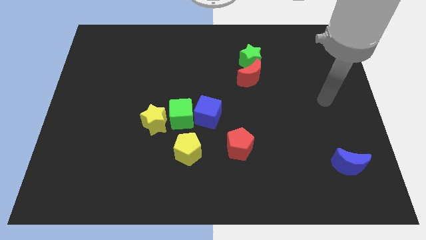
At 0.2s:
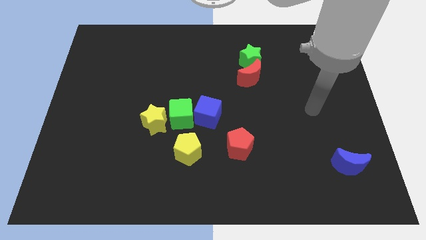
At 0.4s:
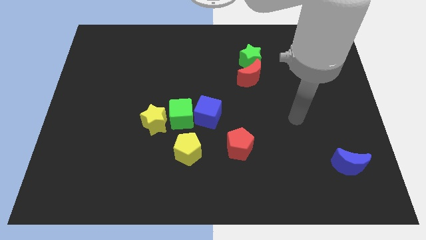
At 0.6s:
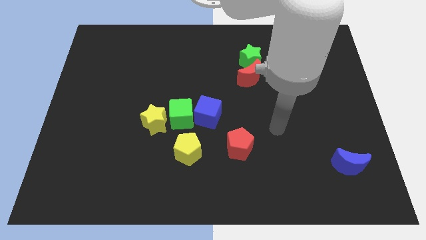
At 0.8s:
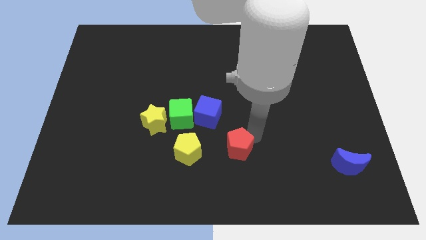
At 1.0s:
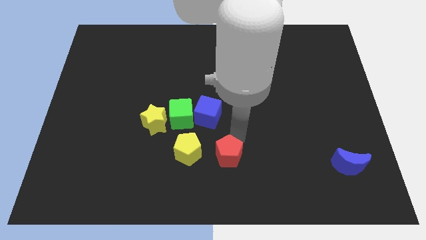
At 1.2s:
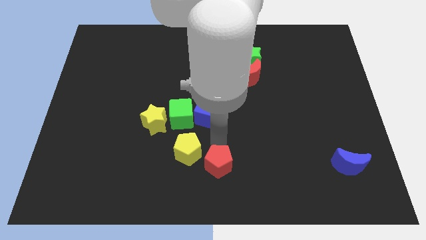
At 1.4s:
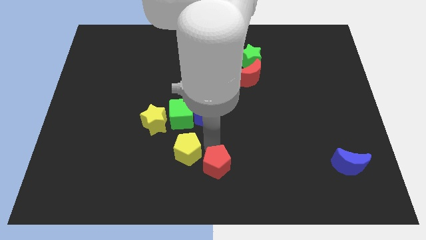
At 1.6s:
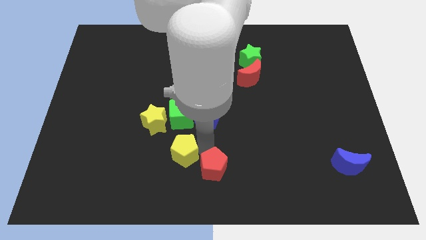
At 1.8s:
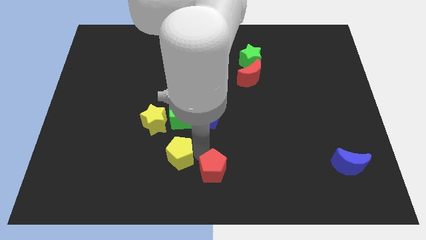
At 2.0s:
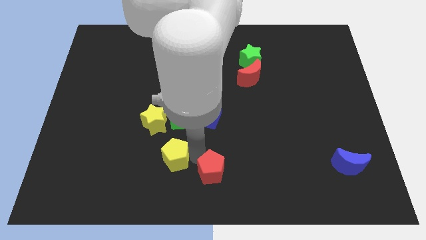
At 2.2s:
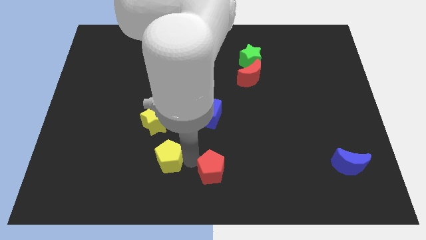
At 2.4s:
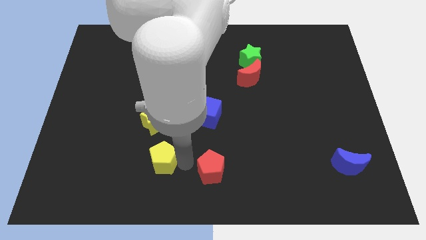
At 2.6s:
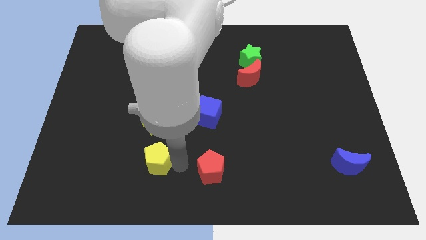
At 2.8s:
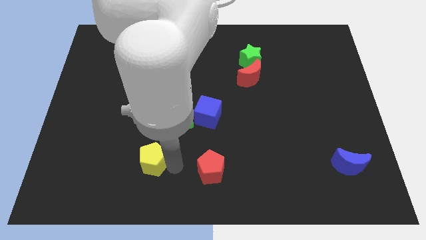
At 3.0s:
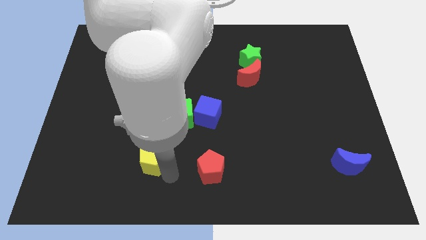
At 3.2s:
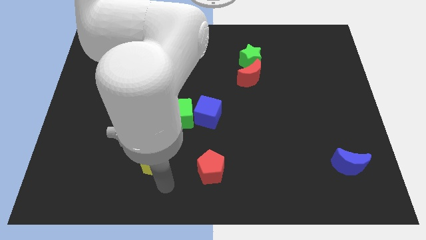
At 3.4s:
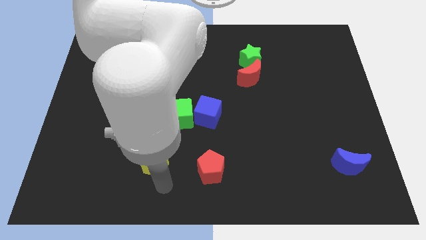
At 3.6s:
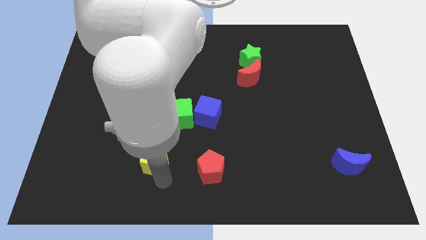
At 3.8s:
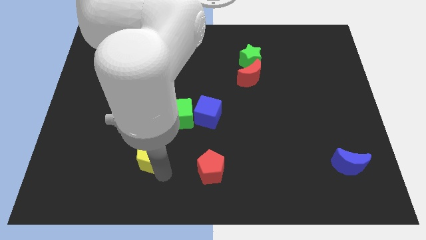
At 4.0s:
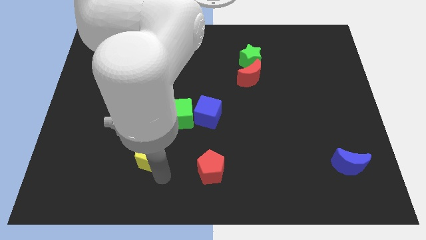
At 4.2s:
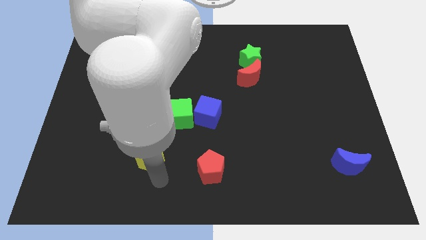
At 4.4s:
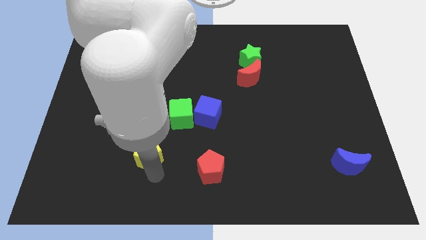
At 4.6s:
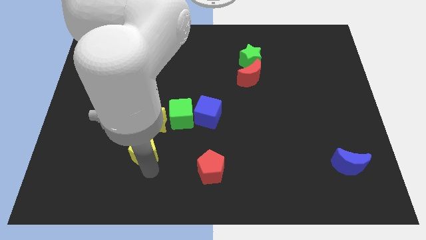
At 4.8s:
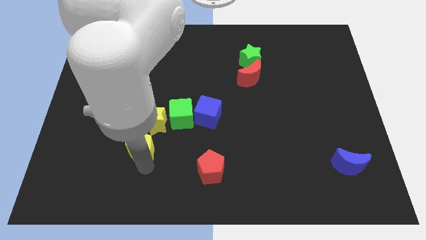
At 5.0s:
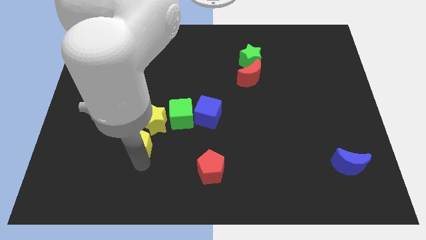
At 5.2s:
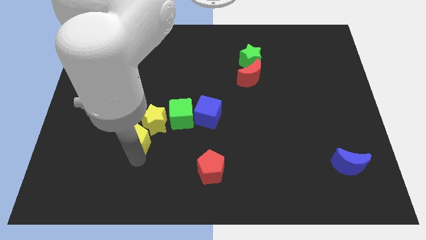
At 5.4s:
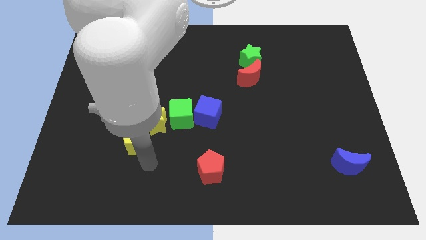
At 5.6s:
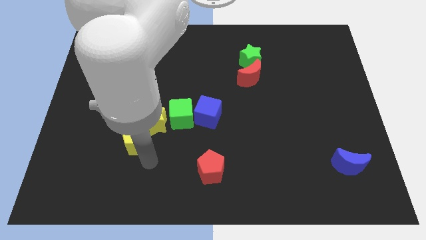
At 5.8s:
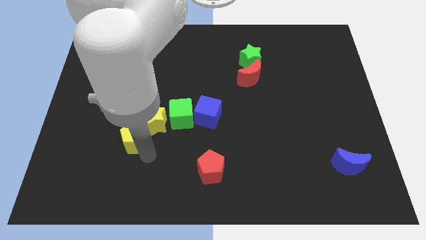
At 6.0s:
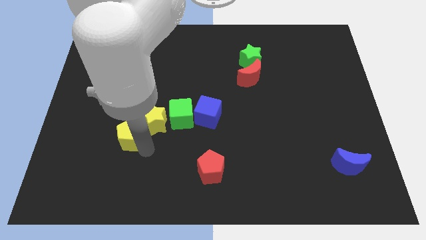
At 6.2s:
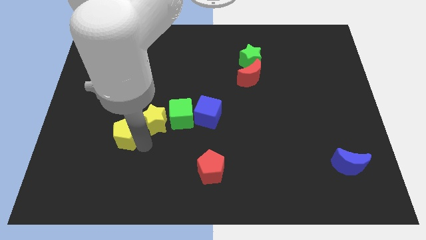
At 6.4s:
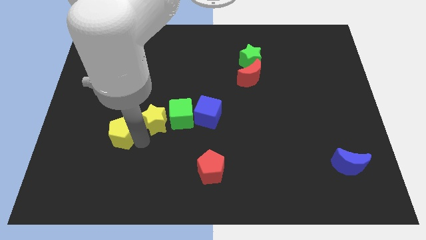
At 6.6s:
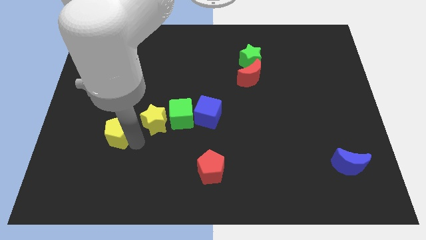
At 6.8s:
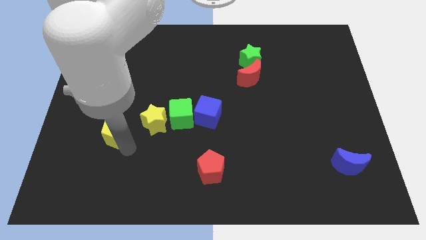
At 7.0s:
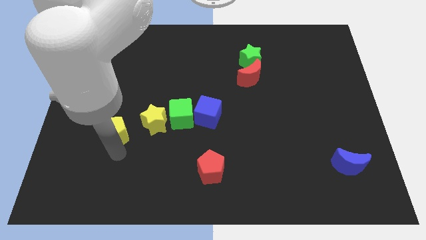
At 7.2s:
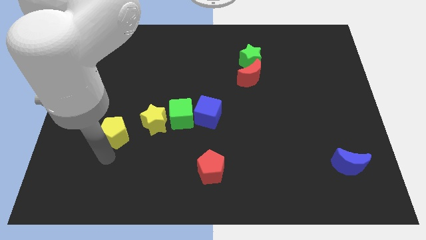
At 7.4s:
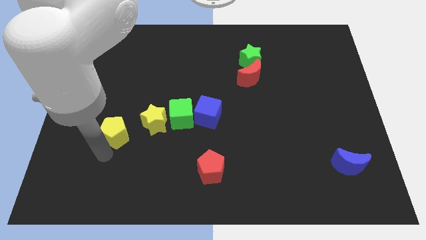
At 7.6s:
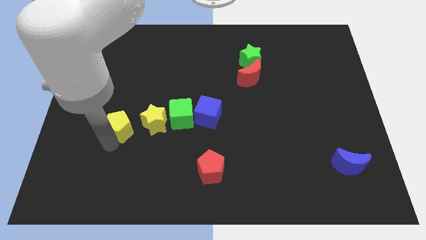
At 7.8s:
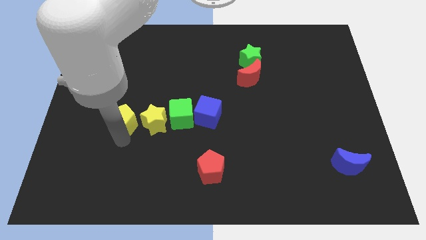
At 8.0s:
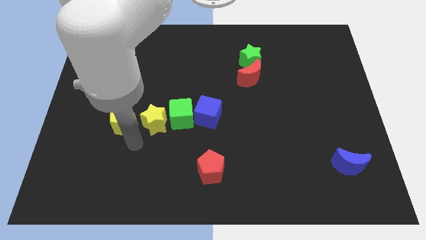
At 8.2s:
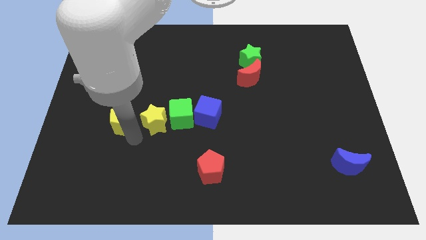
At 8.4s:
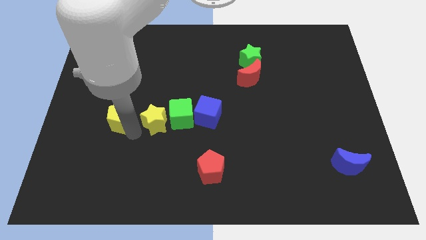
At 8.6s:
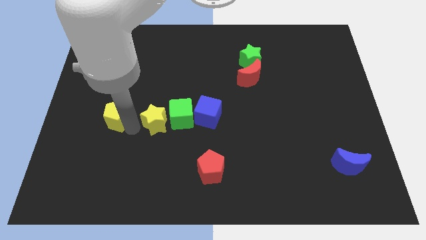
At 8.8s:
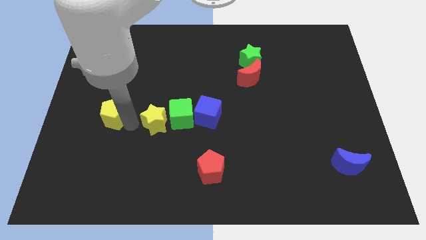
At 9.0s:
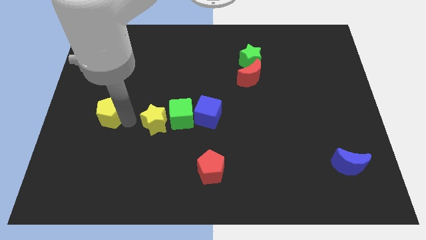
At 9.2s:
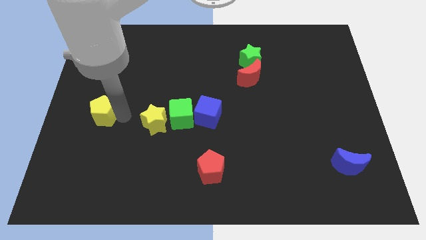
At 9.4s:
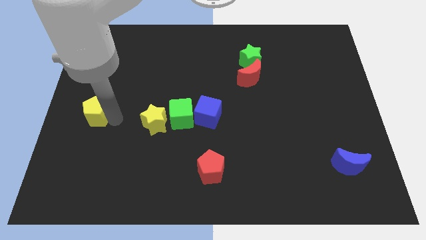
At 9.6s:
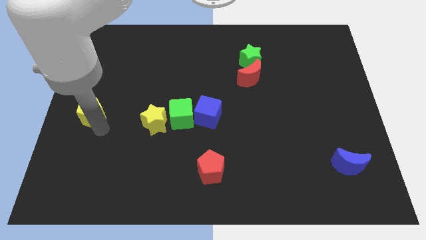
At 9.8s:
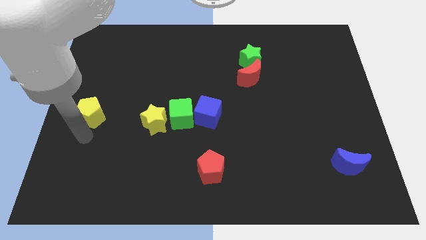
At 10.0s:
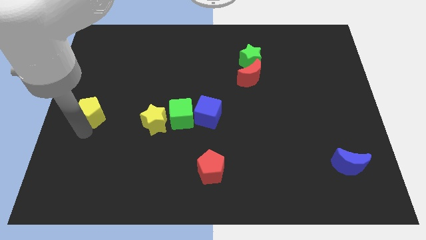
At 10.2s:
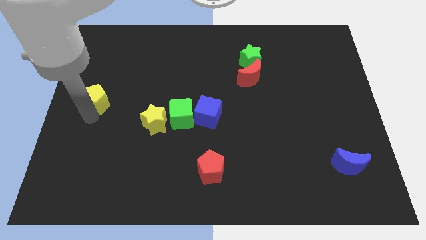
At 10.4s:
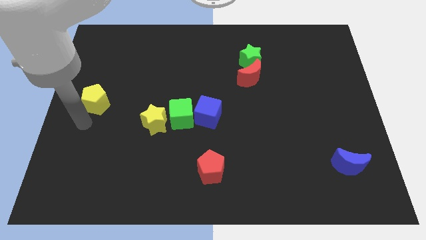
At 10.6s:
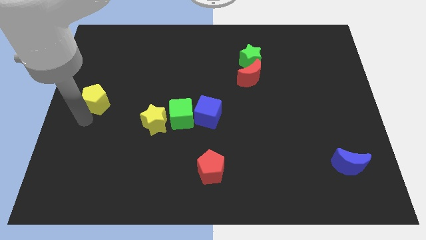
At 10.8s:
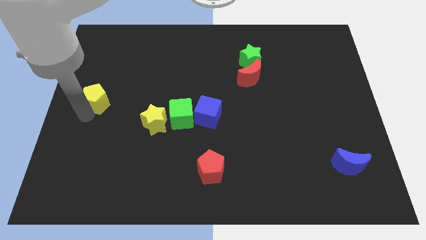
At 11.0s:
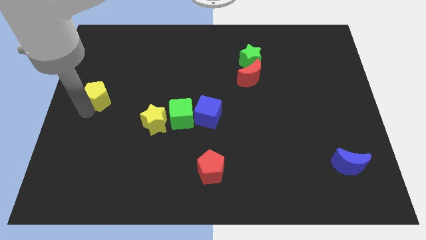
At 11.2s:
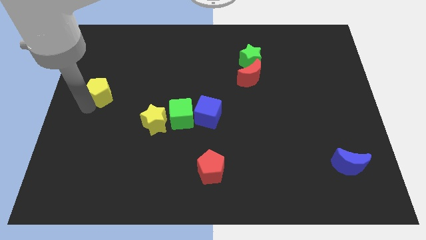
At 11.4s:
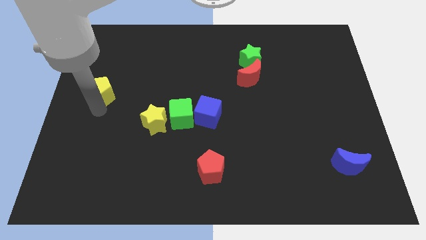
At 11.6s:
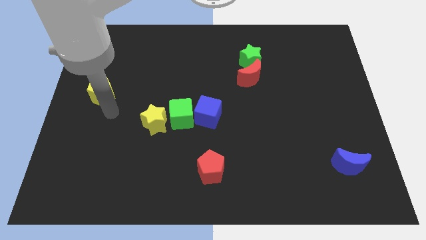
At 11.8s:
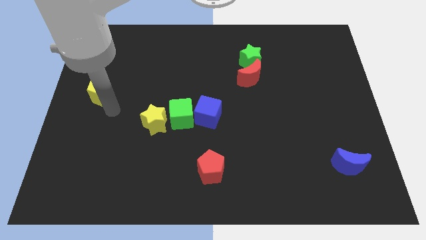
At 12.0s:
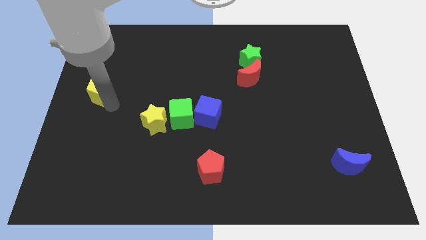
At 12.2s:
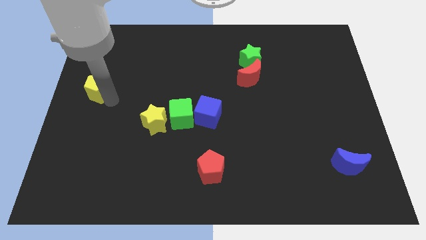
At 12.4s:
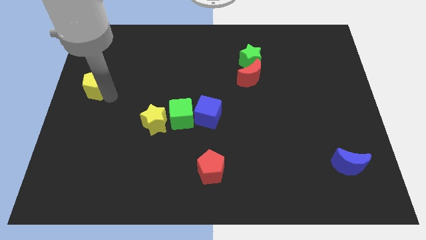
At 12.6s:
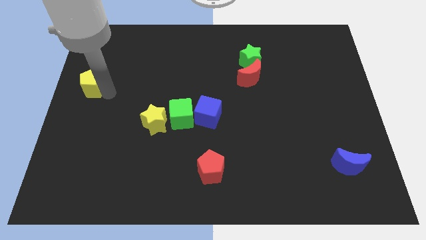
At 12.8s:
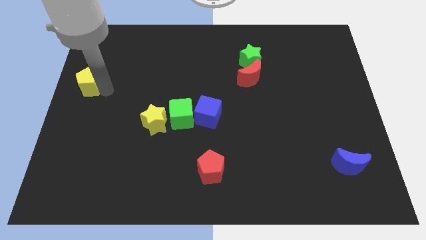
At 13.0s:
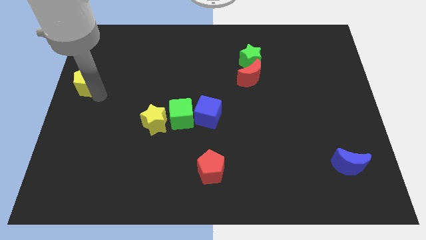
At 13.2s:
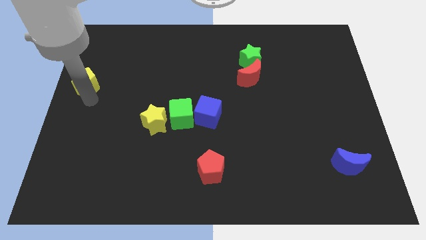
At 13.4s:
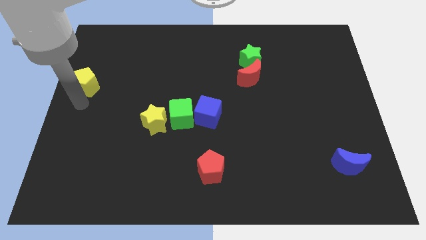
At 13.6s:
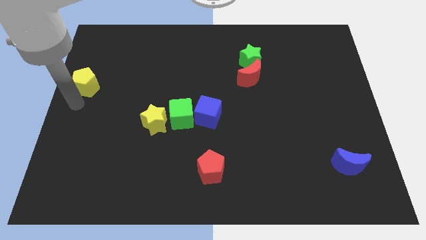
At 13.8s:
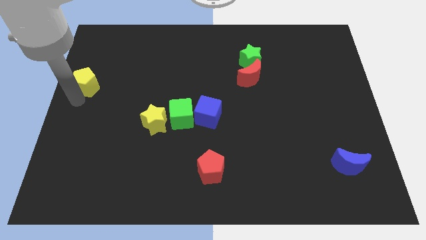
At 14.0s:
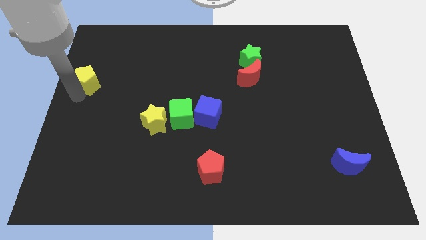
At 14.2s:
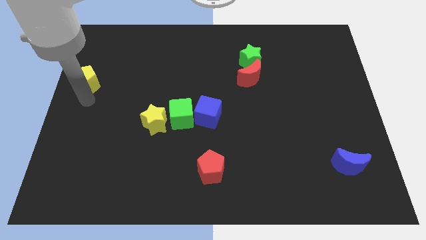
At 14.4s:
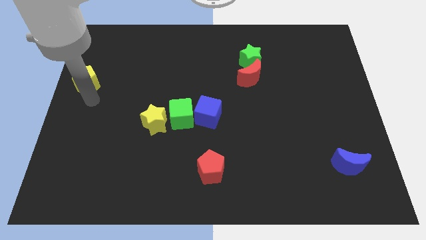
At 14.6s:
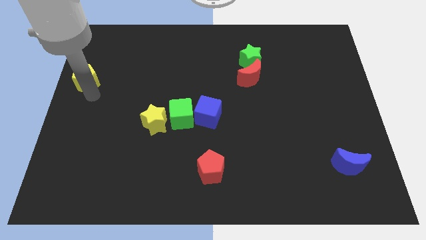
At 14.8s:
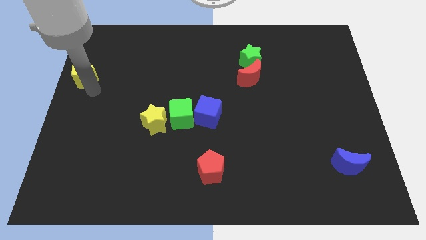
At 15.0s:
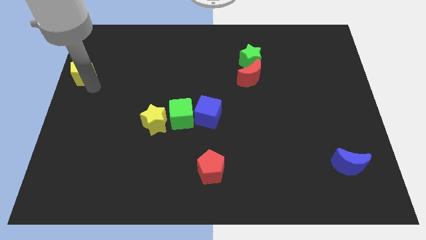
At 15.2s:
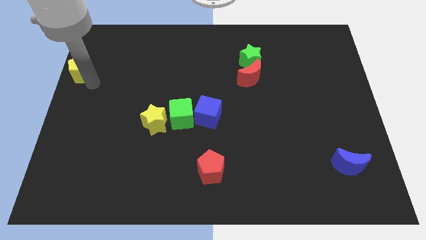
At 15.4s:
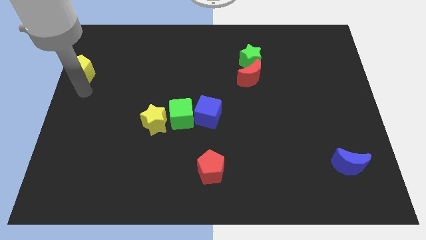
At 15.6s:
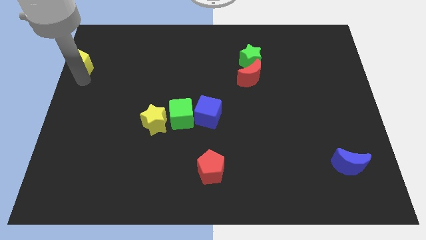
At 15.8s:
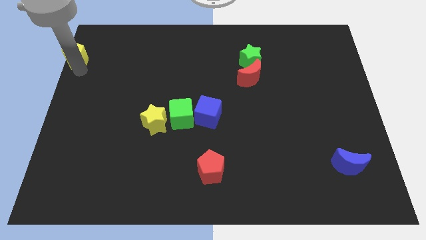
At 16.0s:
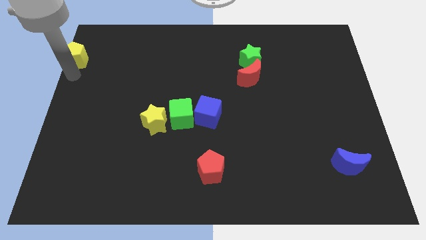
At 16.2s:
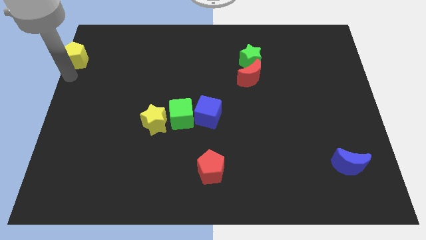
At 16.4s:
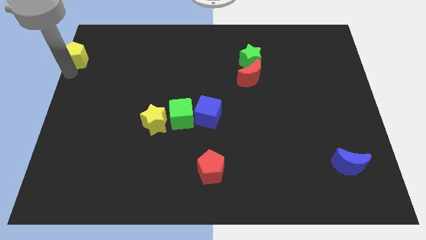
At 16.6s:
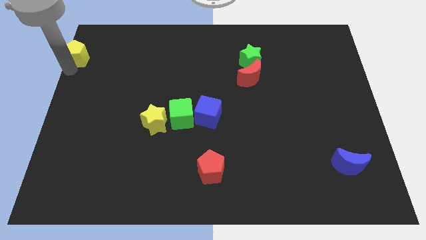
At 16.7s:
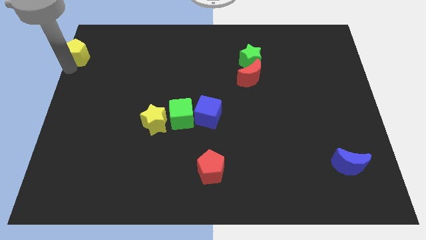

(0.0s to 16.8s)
put the yellow pentagon to the top left corner
